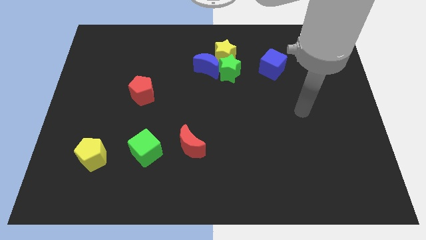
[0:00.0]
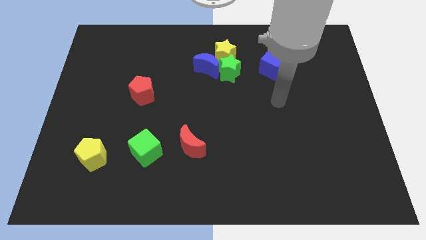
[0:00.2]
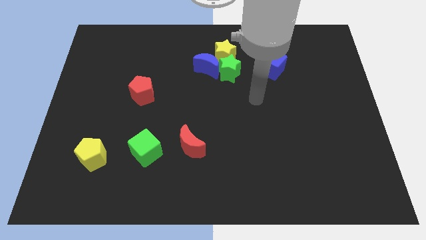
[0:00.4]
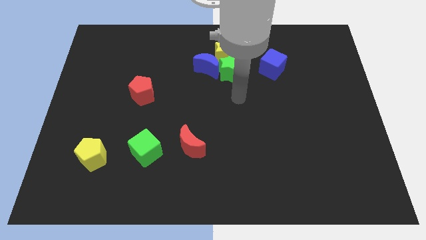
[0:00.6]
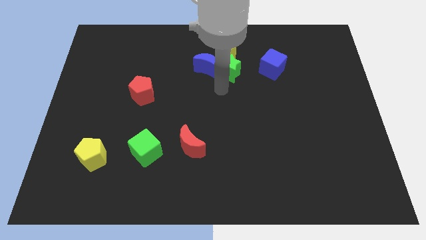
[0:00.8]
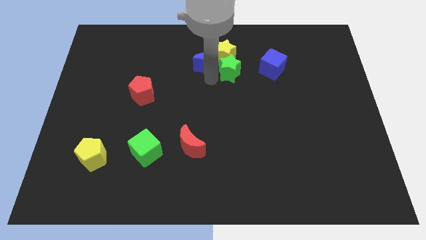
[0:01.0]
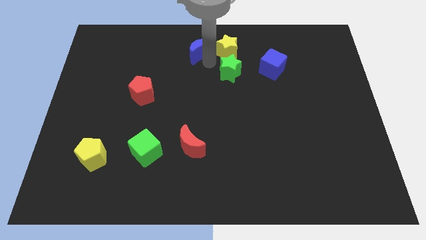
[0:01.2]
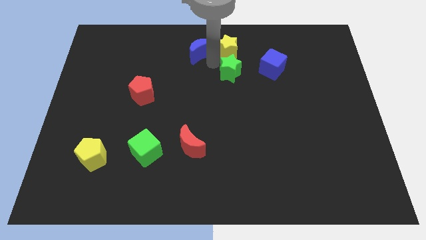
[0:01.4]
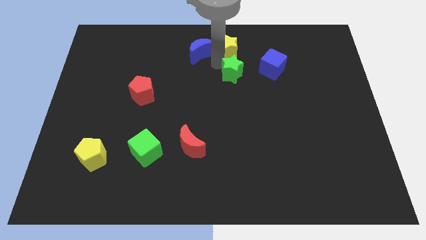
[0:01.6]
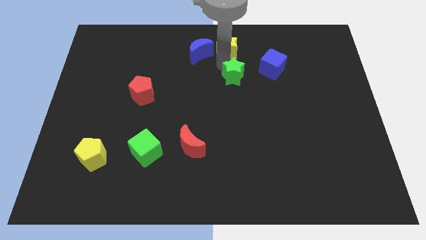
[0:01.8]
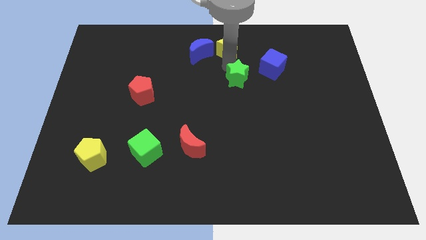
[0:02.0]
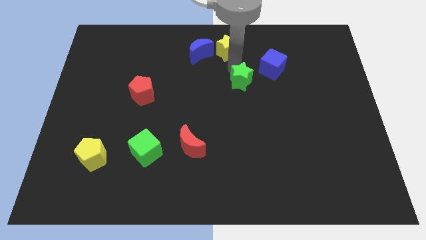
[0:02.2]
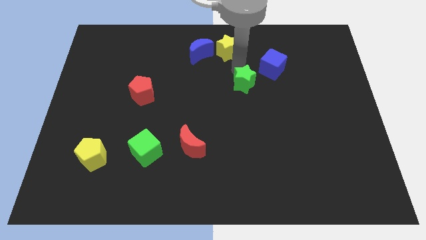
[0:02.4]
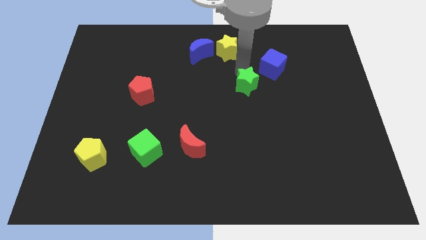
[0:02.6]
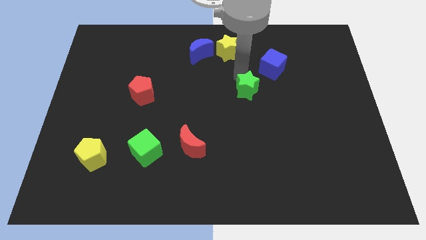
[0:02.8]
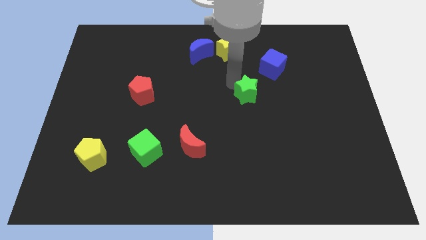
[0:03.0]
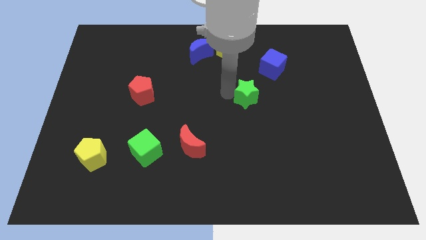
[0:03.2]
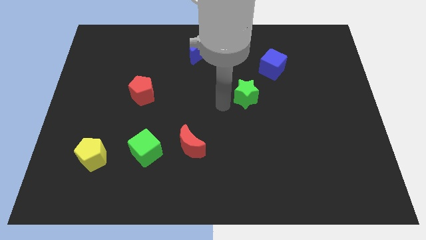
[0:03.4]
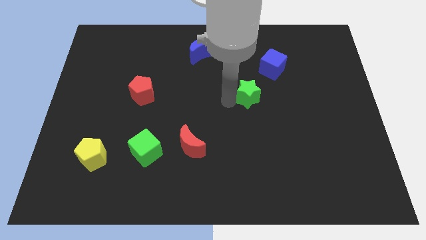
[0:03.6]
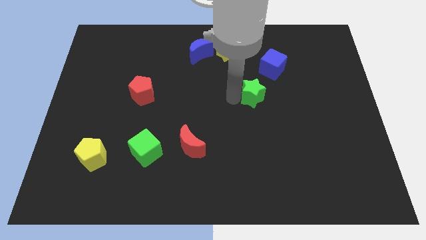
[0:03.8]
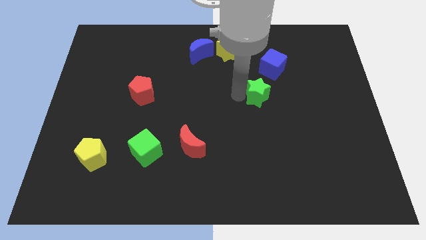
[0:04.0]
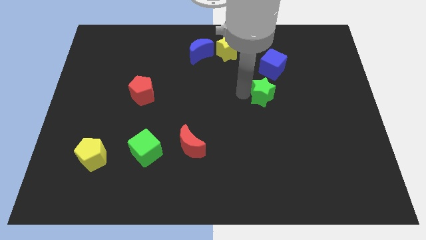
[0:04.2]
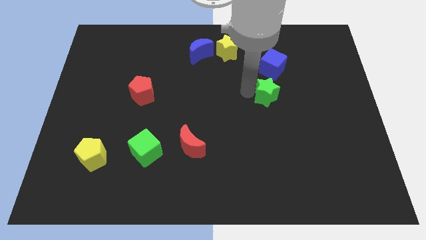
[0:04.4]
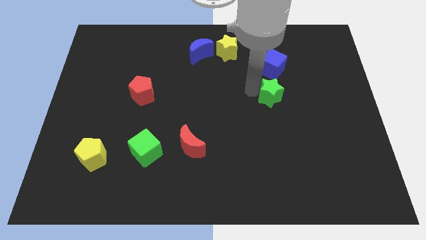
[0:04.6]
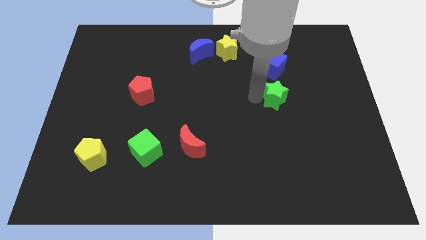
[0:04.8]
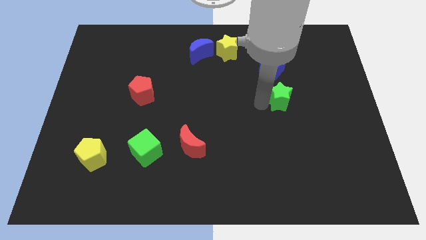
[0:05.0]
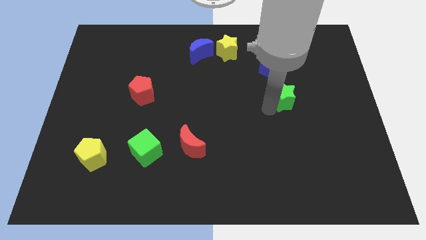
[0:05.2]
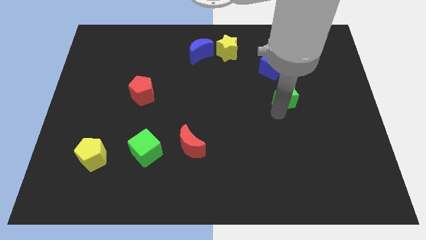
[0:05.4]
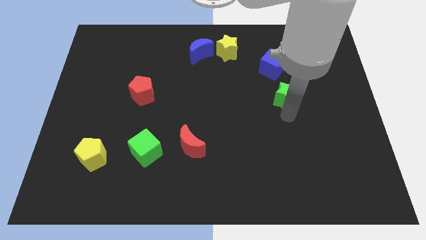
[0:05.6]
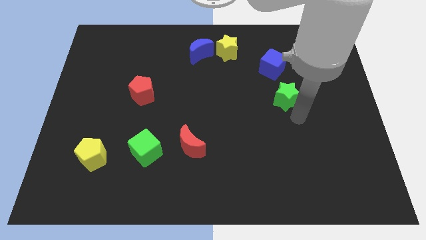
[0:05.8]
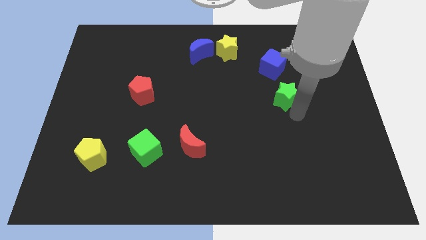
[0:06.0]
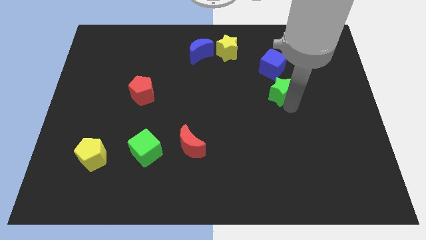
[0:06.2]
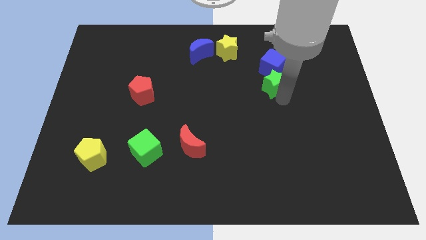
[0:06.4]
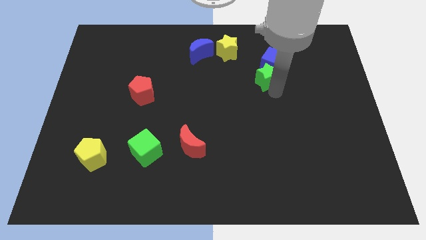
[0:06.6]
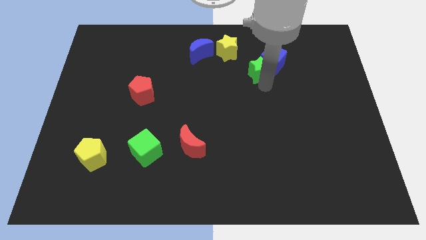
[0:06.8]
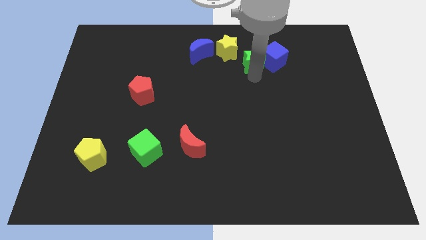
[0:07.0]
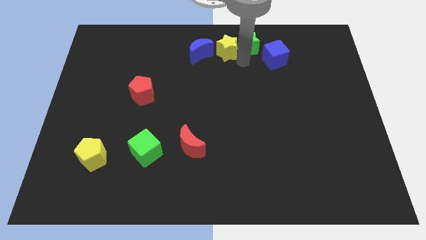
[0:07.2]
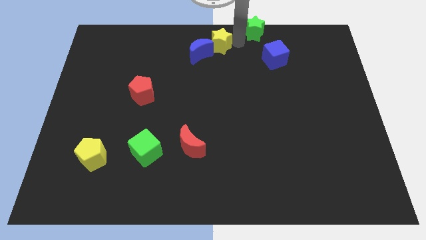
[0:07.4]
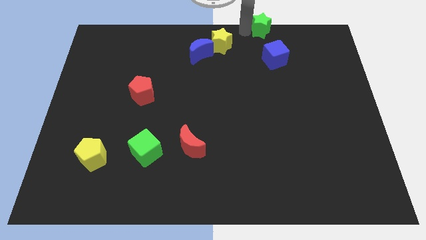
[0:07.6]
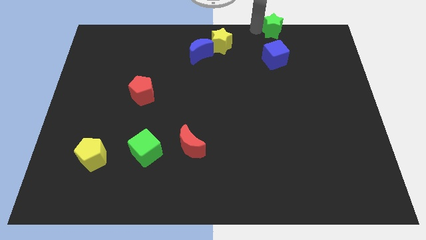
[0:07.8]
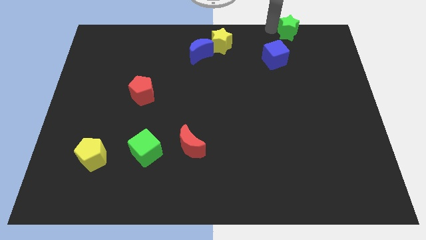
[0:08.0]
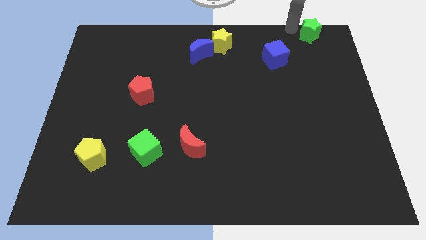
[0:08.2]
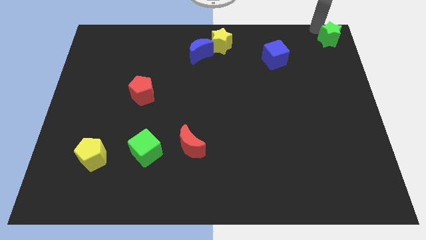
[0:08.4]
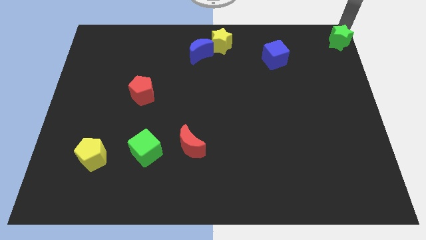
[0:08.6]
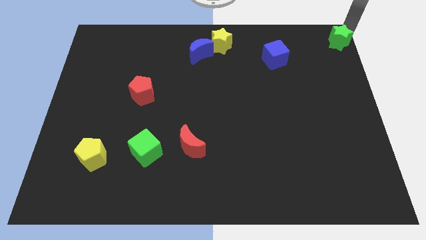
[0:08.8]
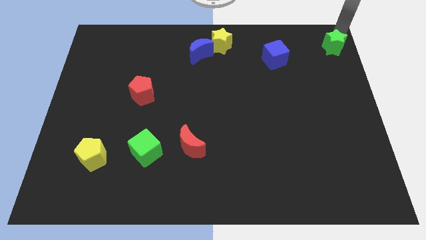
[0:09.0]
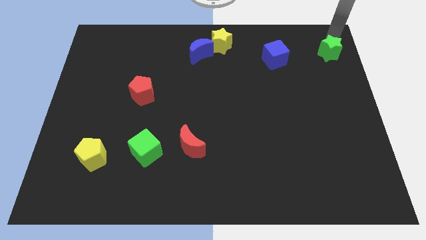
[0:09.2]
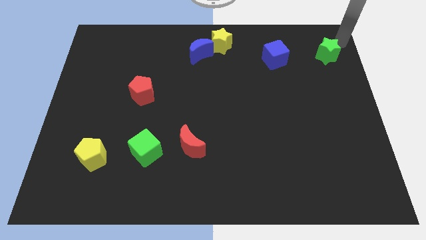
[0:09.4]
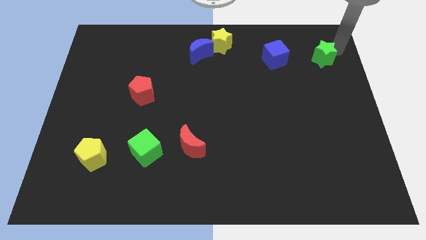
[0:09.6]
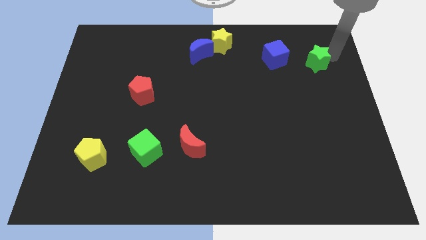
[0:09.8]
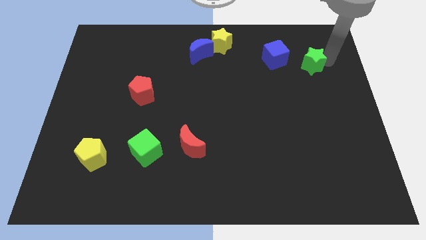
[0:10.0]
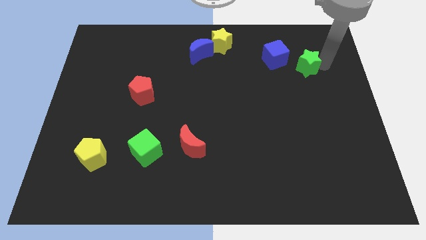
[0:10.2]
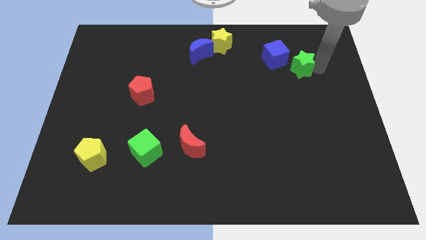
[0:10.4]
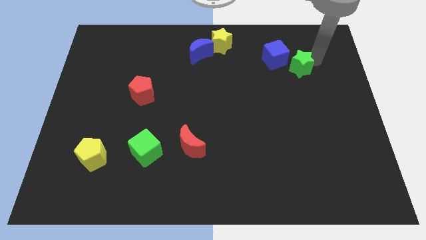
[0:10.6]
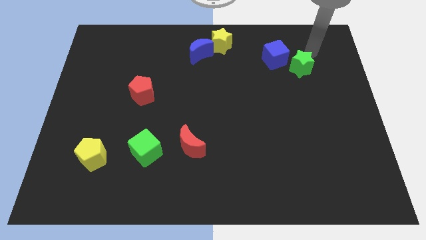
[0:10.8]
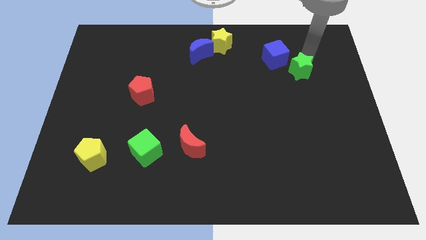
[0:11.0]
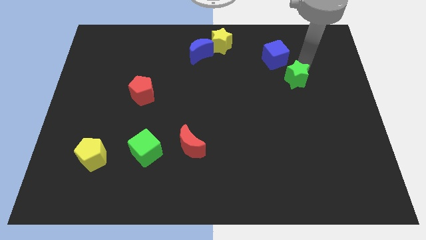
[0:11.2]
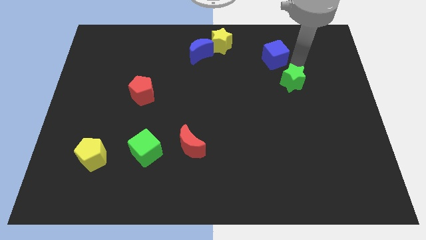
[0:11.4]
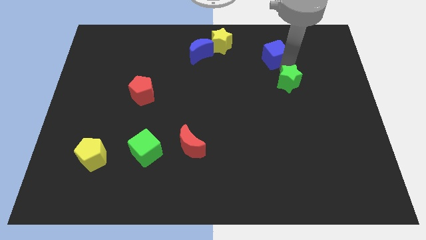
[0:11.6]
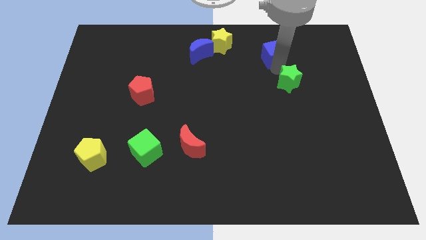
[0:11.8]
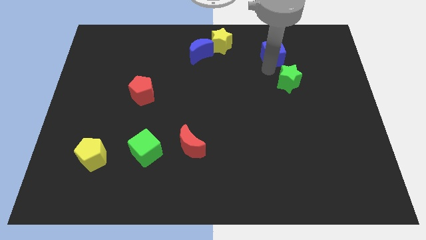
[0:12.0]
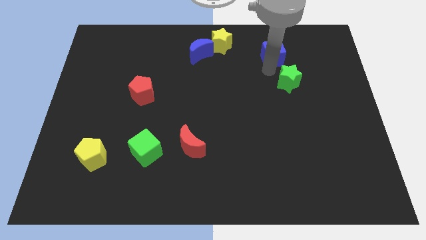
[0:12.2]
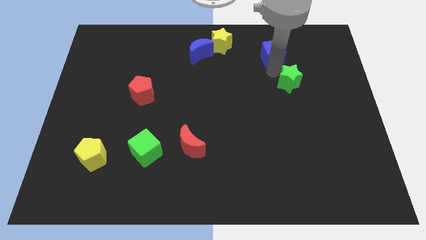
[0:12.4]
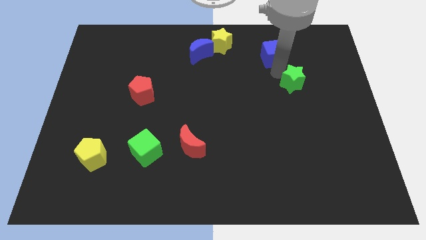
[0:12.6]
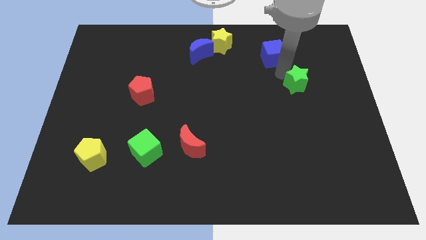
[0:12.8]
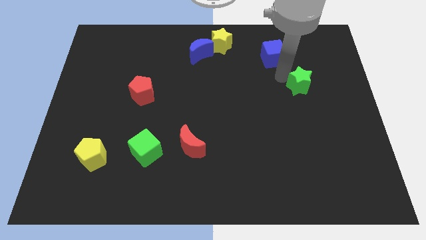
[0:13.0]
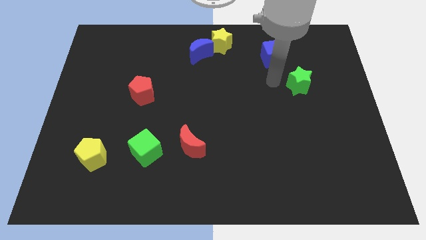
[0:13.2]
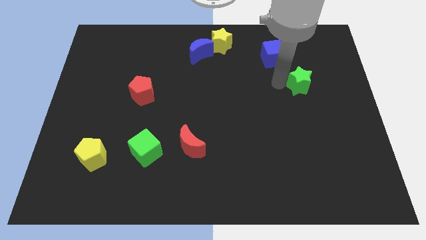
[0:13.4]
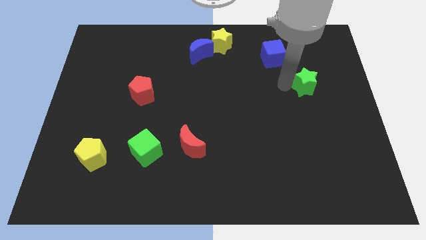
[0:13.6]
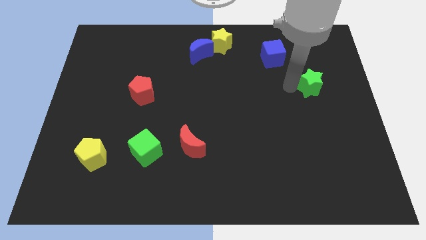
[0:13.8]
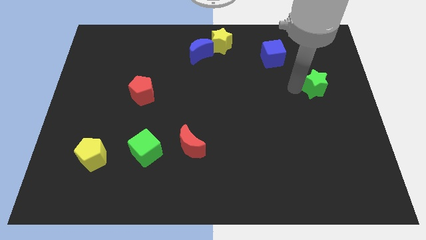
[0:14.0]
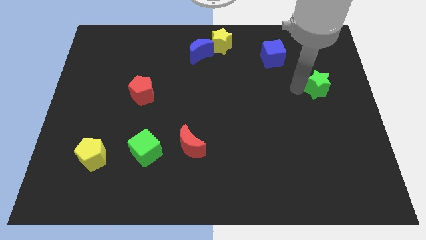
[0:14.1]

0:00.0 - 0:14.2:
move the green star to the right side
